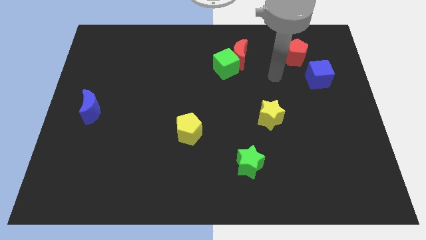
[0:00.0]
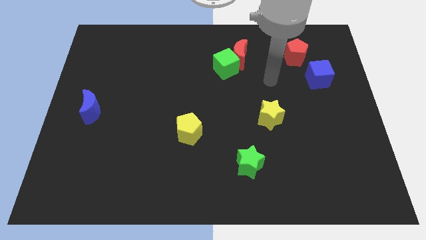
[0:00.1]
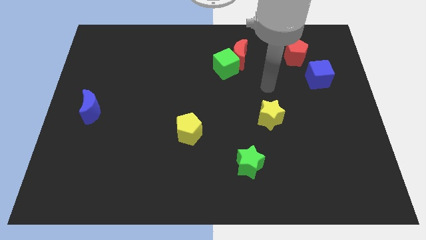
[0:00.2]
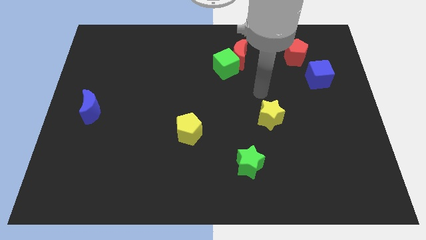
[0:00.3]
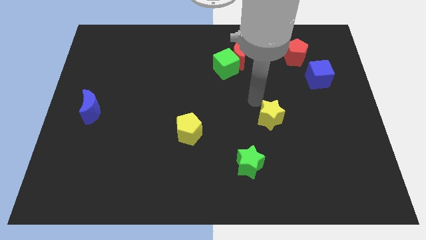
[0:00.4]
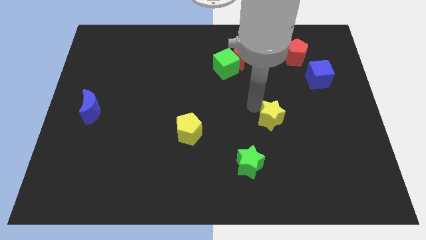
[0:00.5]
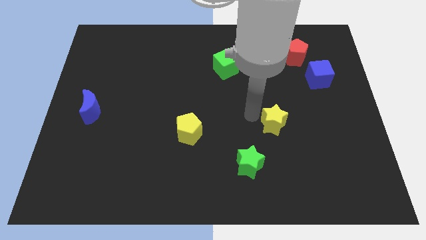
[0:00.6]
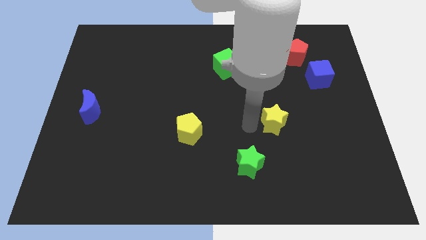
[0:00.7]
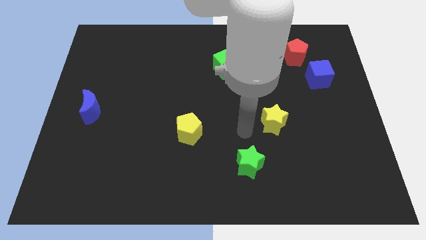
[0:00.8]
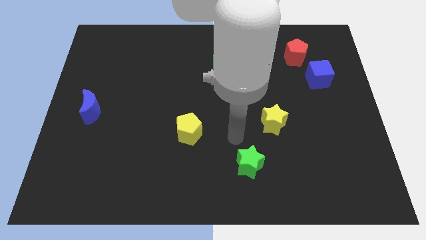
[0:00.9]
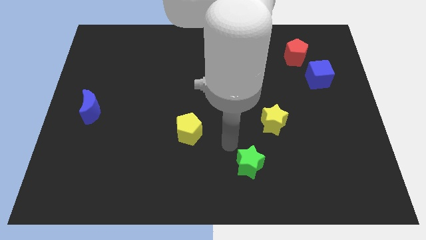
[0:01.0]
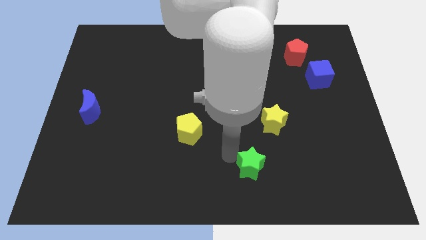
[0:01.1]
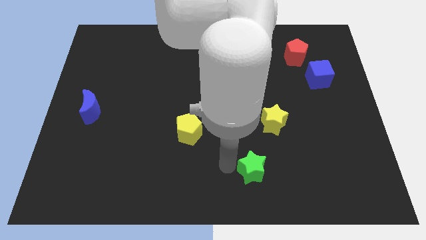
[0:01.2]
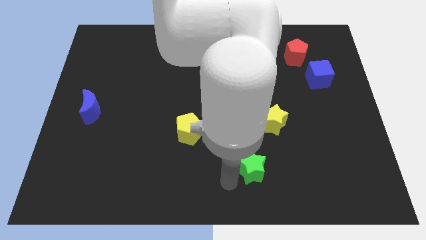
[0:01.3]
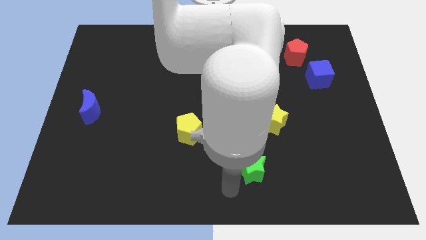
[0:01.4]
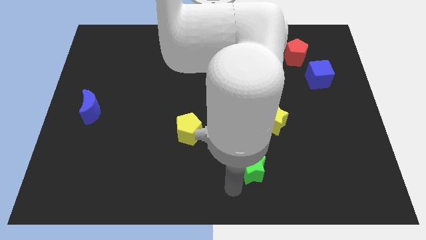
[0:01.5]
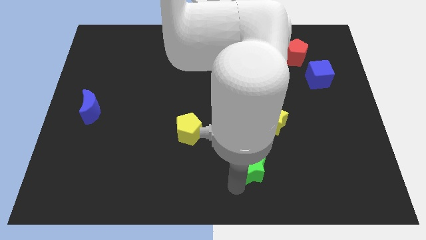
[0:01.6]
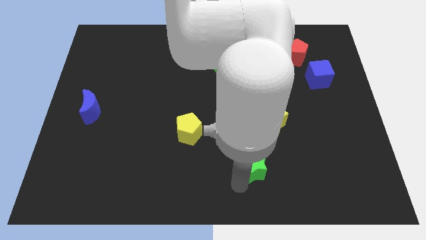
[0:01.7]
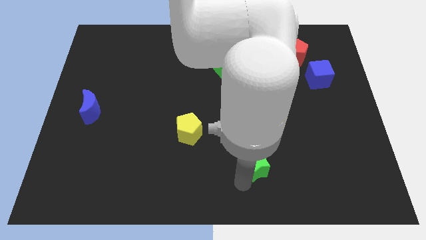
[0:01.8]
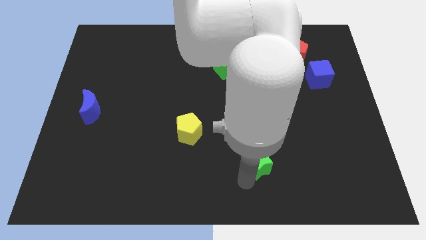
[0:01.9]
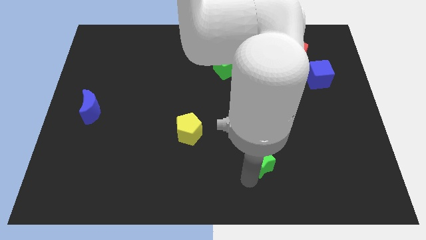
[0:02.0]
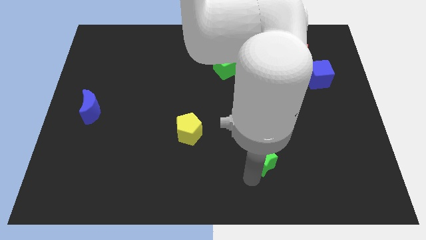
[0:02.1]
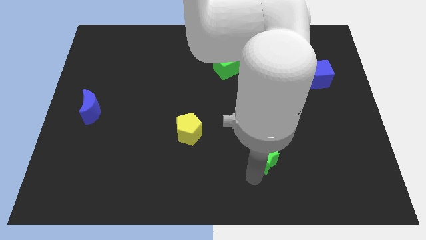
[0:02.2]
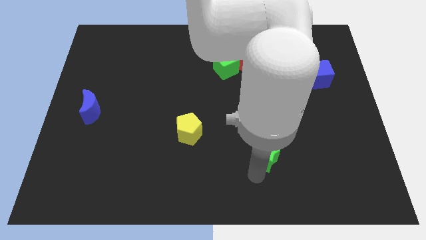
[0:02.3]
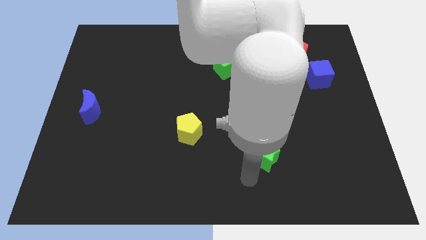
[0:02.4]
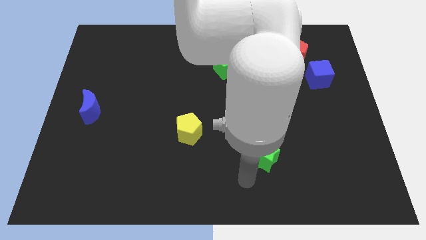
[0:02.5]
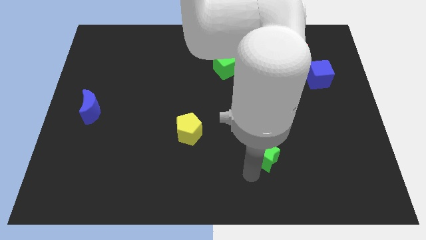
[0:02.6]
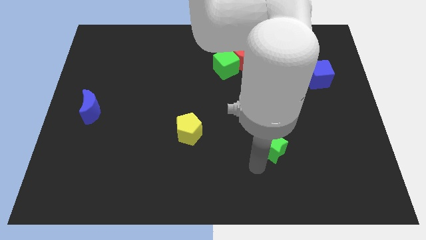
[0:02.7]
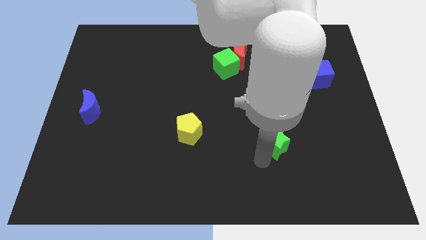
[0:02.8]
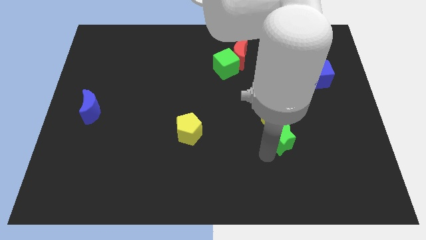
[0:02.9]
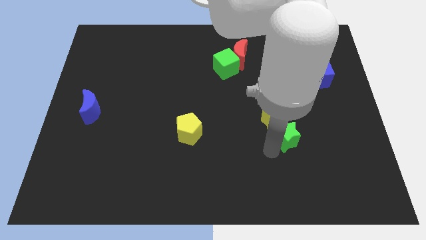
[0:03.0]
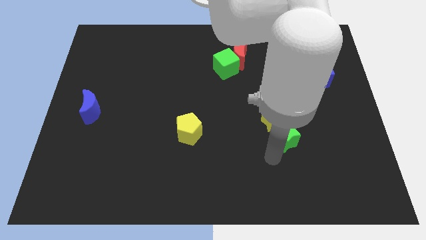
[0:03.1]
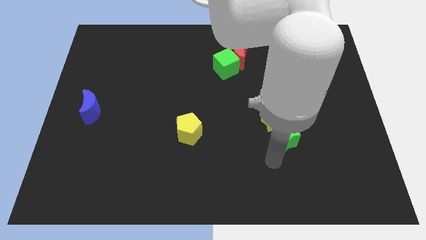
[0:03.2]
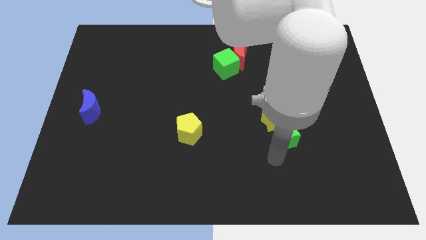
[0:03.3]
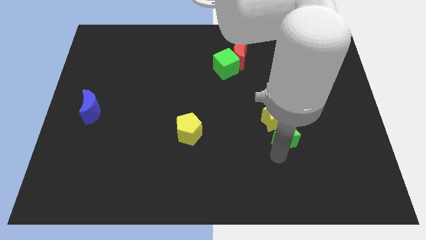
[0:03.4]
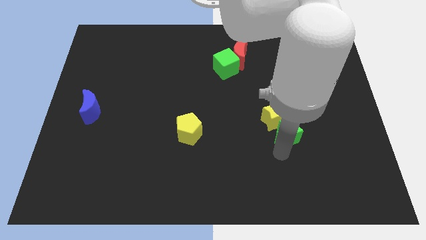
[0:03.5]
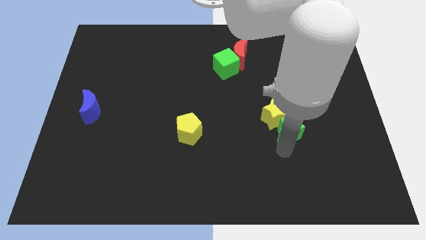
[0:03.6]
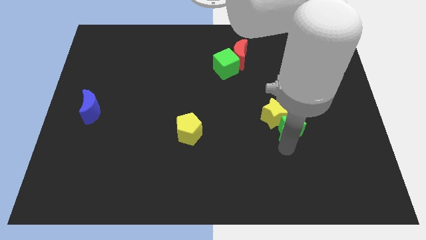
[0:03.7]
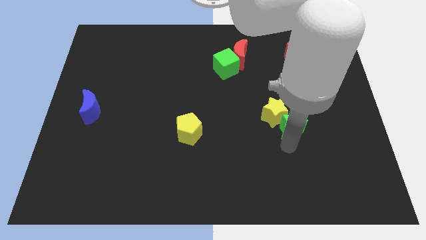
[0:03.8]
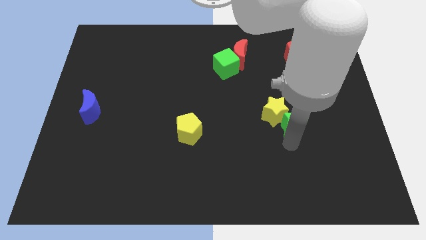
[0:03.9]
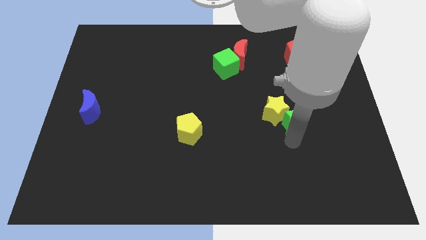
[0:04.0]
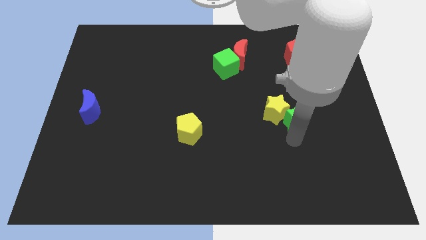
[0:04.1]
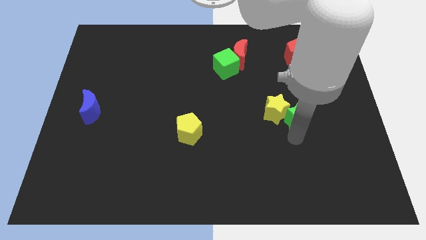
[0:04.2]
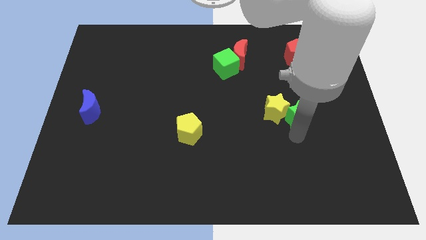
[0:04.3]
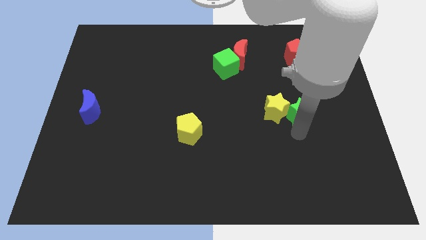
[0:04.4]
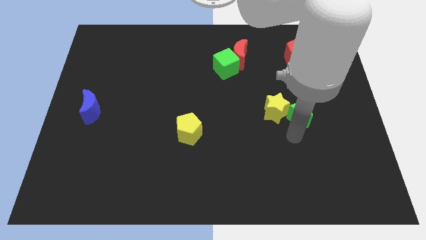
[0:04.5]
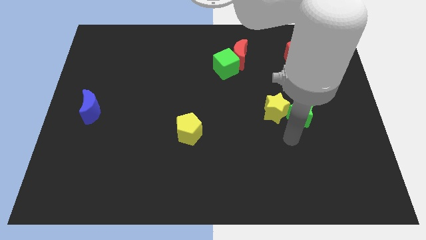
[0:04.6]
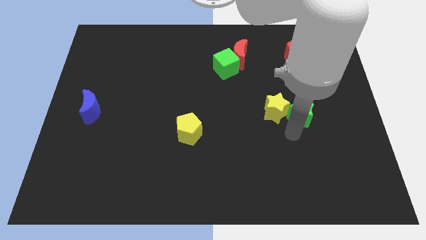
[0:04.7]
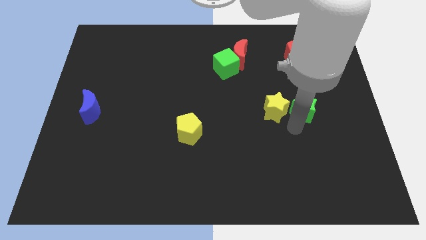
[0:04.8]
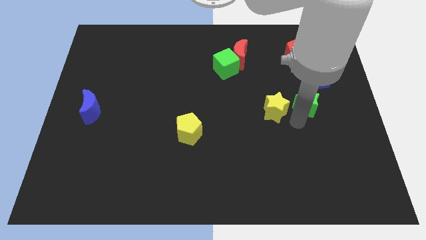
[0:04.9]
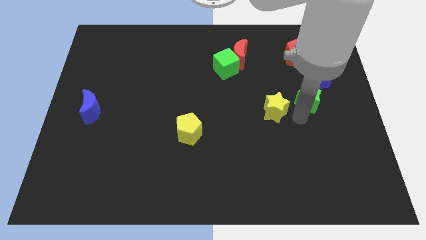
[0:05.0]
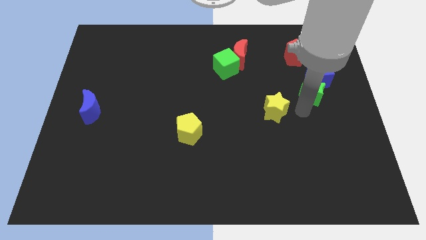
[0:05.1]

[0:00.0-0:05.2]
slide the green star next to the blue cube

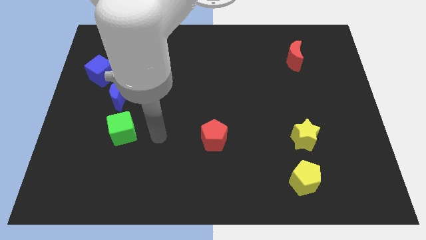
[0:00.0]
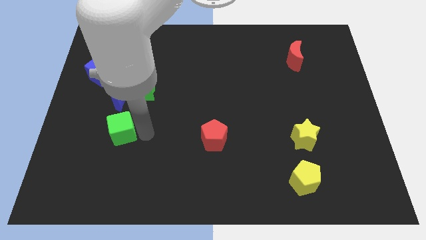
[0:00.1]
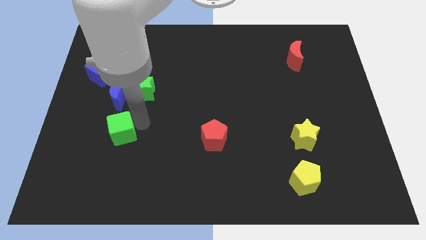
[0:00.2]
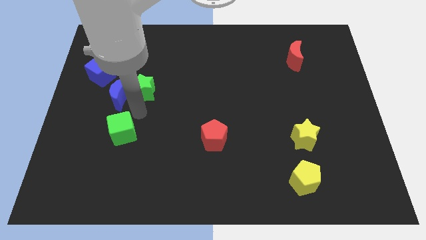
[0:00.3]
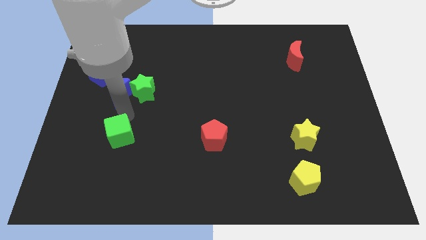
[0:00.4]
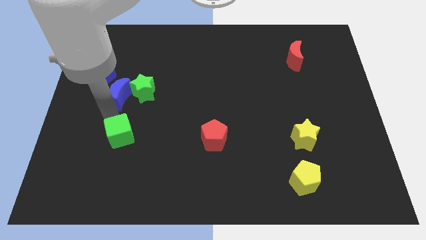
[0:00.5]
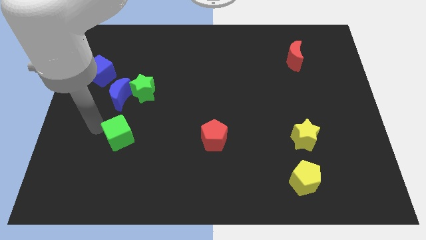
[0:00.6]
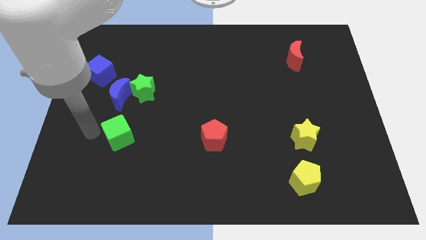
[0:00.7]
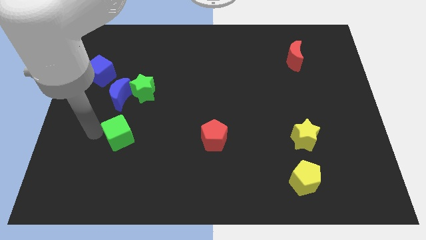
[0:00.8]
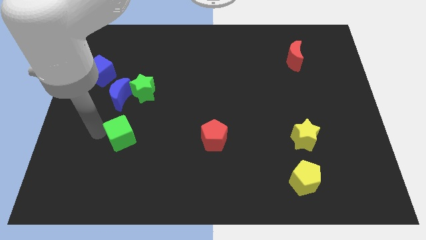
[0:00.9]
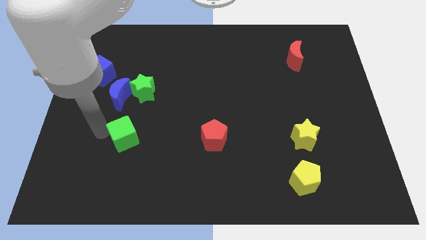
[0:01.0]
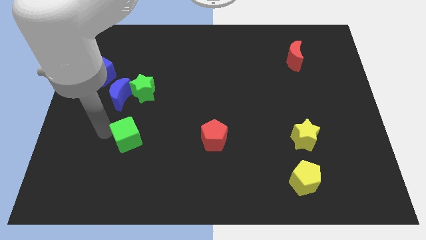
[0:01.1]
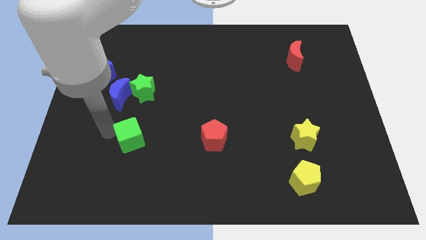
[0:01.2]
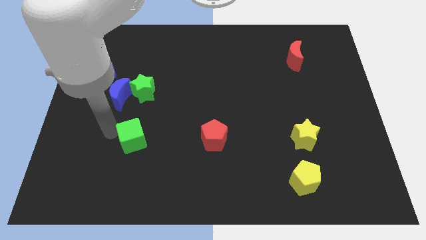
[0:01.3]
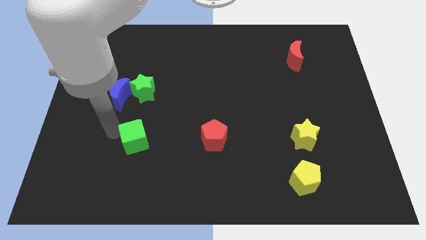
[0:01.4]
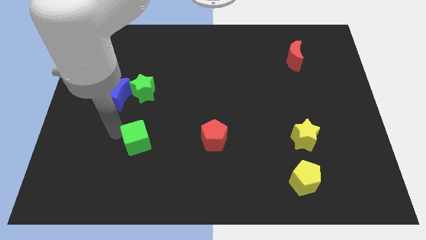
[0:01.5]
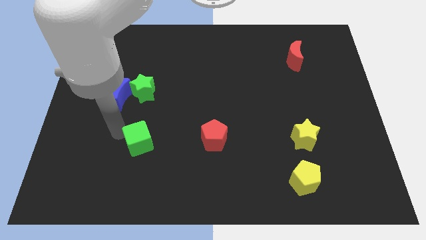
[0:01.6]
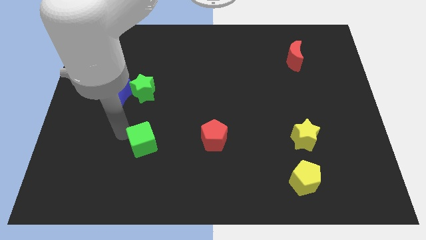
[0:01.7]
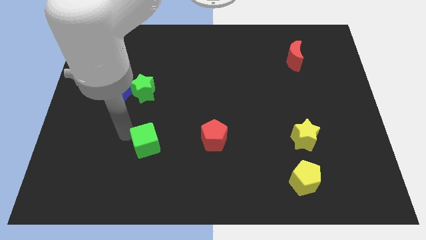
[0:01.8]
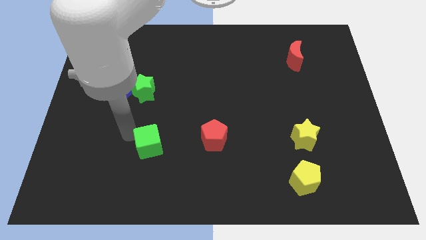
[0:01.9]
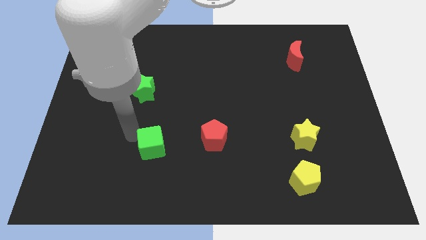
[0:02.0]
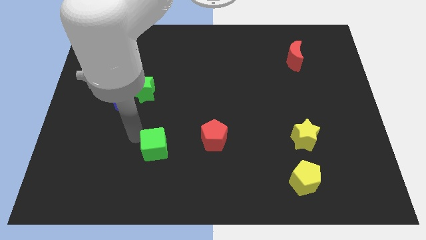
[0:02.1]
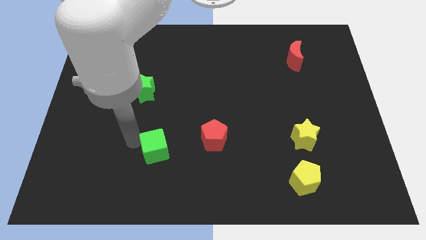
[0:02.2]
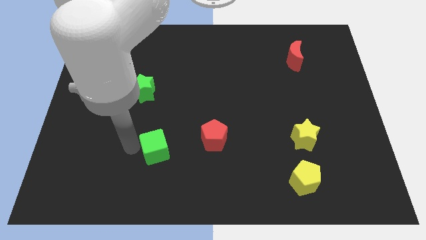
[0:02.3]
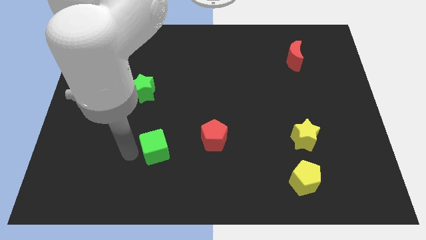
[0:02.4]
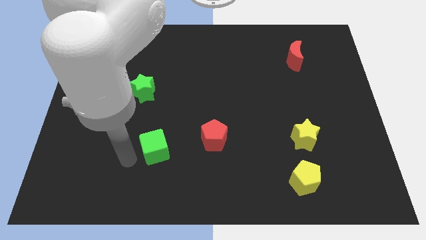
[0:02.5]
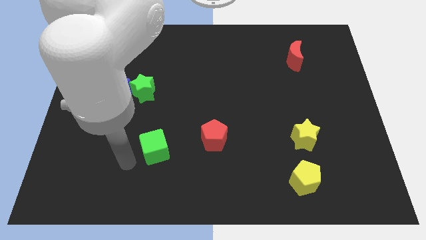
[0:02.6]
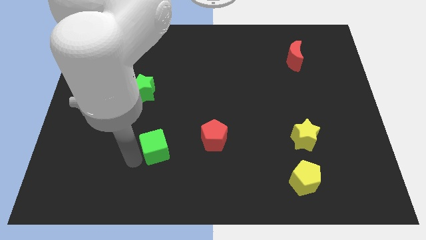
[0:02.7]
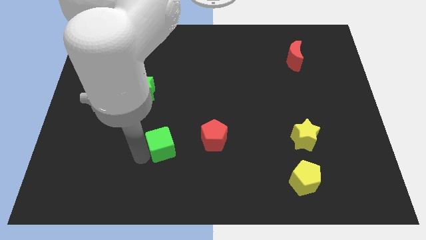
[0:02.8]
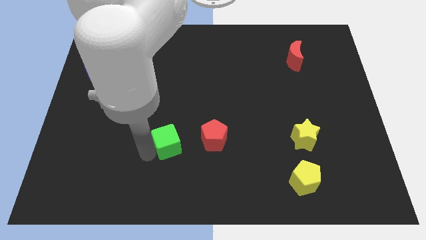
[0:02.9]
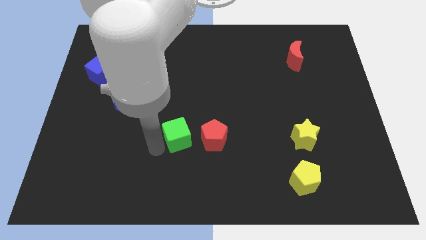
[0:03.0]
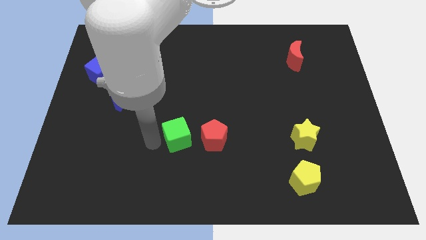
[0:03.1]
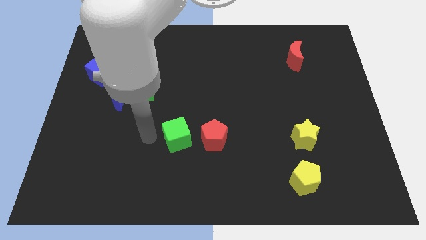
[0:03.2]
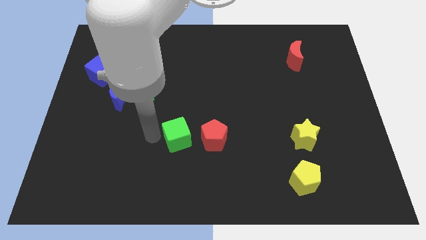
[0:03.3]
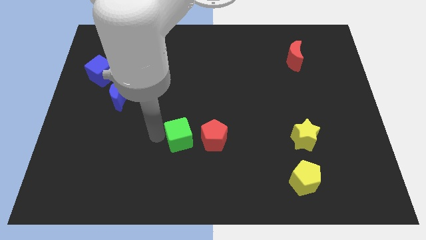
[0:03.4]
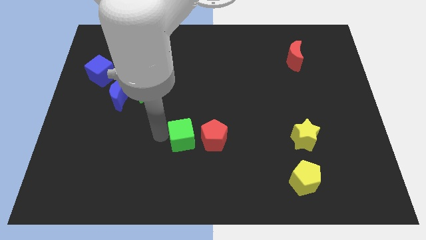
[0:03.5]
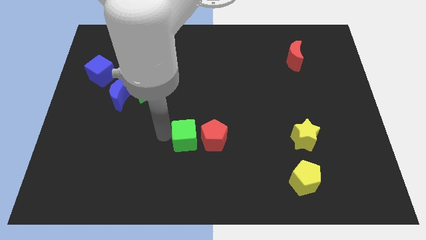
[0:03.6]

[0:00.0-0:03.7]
put the green cube to the red pentagon
